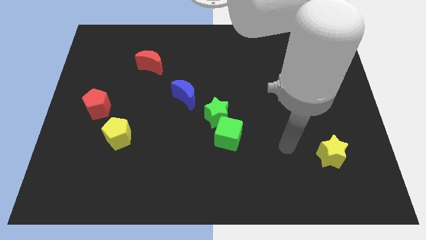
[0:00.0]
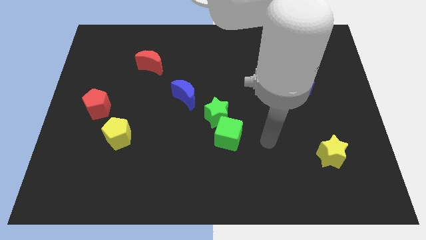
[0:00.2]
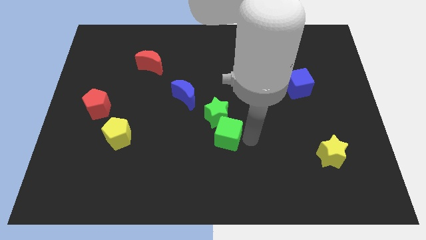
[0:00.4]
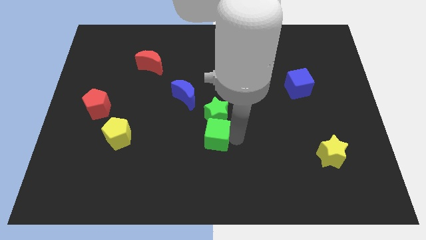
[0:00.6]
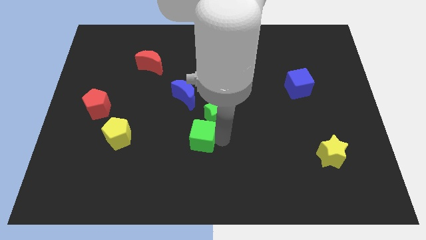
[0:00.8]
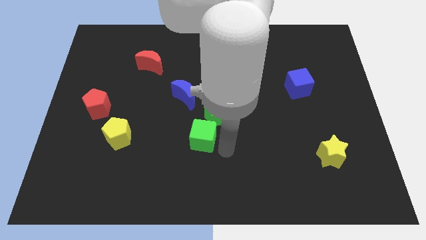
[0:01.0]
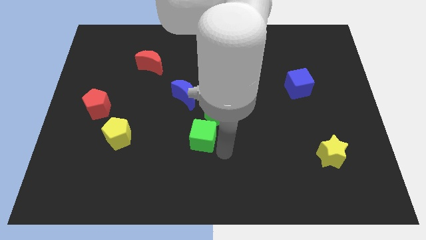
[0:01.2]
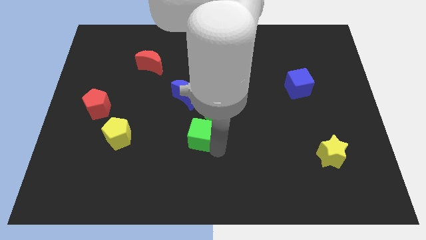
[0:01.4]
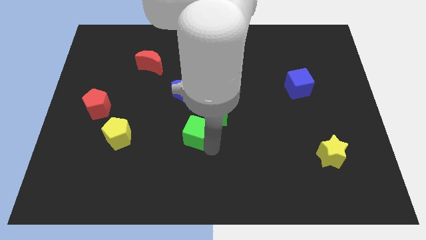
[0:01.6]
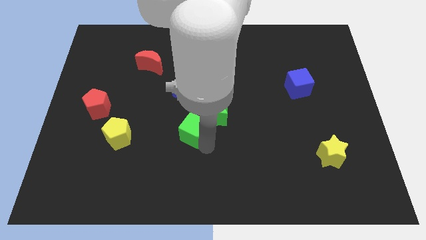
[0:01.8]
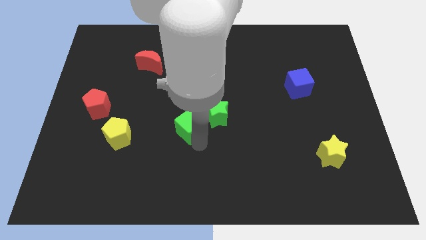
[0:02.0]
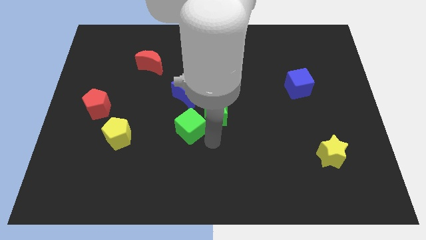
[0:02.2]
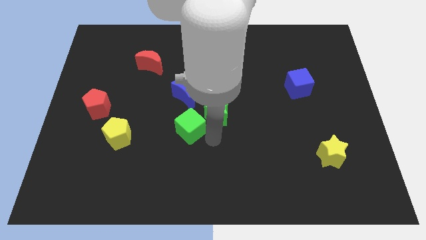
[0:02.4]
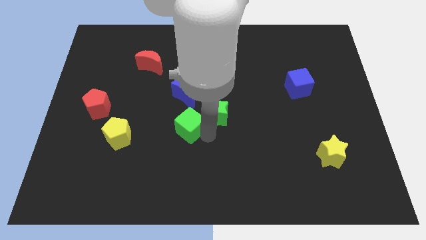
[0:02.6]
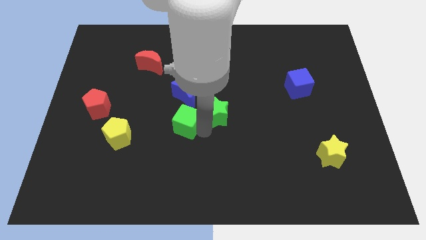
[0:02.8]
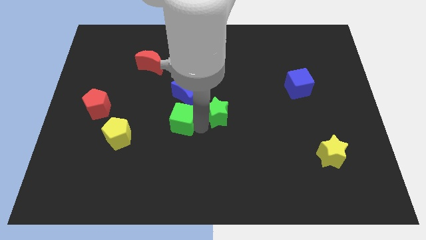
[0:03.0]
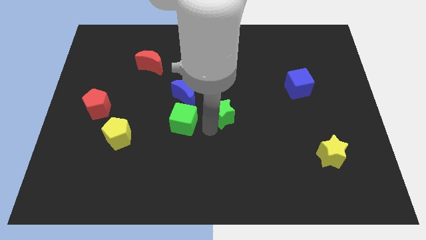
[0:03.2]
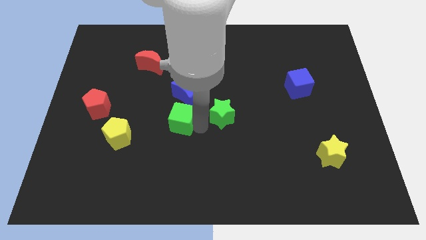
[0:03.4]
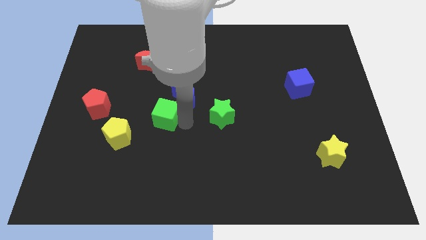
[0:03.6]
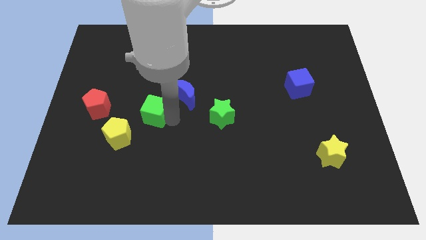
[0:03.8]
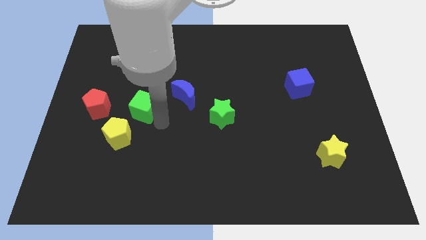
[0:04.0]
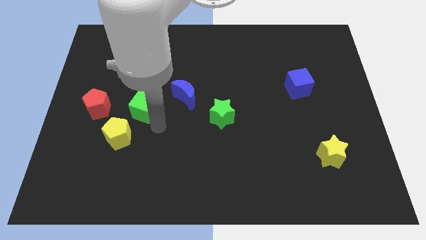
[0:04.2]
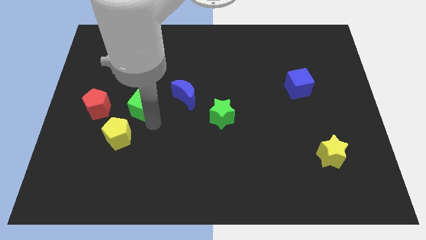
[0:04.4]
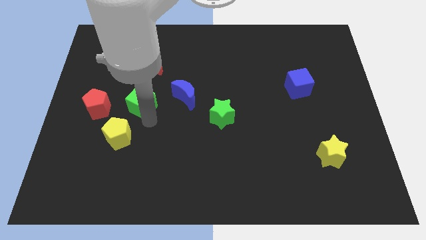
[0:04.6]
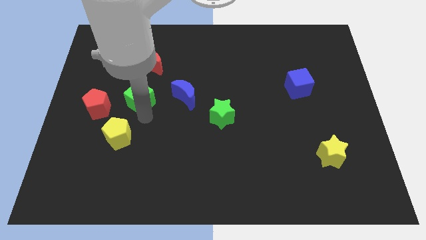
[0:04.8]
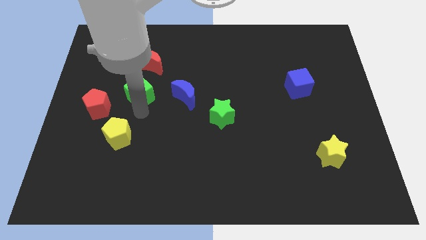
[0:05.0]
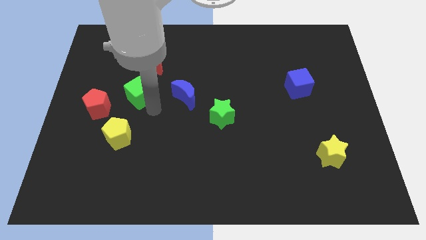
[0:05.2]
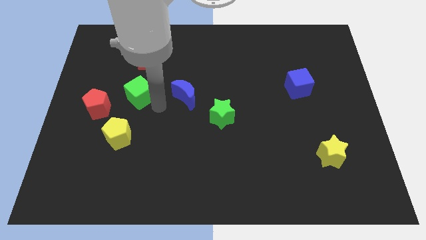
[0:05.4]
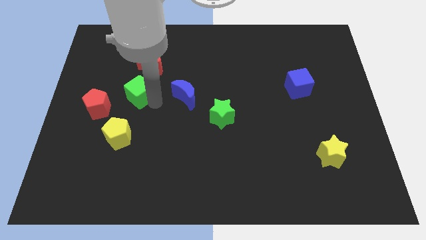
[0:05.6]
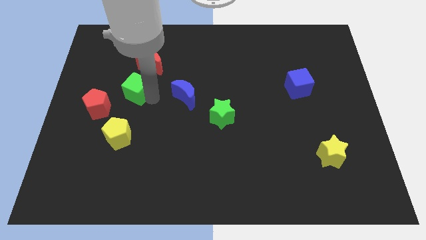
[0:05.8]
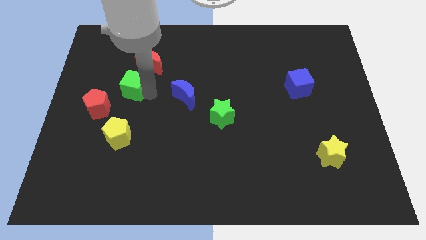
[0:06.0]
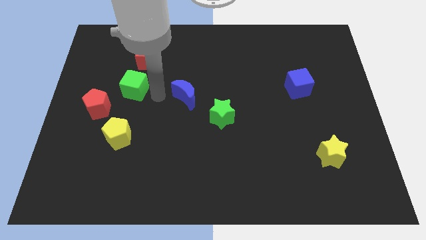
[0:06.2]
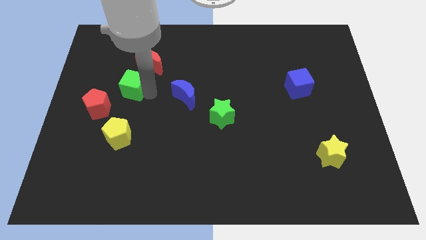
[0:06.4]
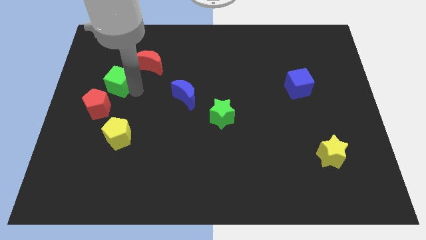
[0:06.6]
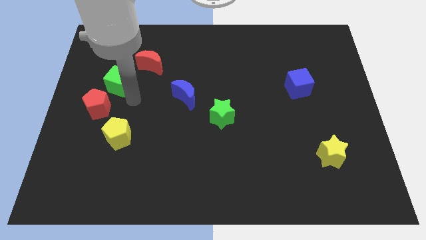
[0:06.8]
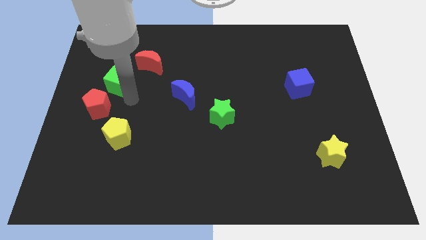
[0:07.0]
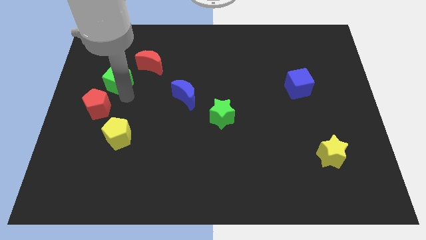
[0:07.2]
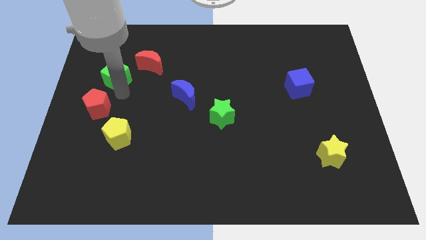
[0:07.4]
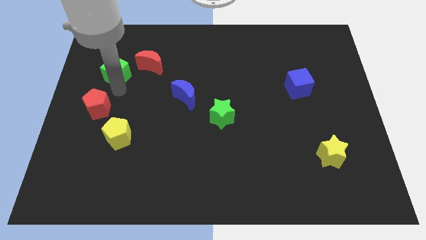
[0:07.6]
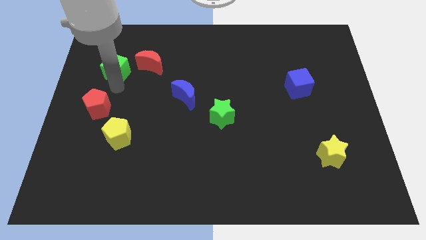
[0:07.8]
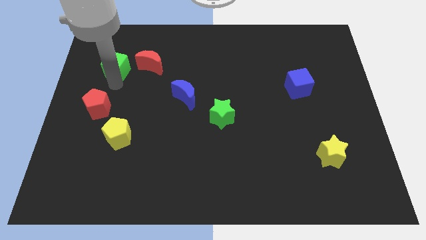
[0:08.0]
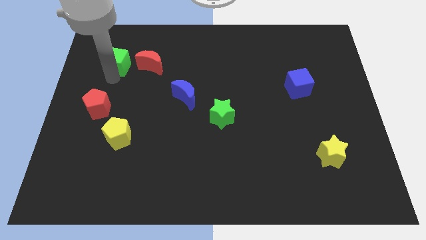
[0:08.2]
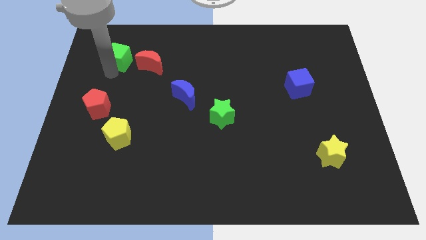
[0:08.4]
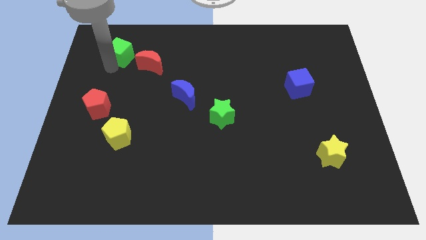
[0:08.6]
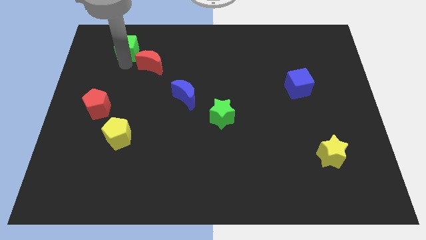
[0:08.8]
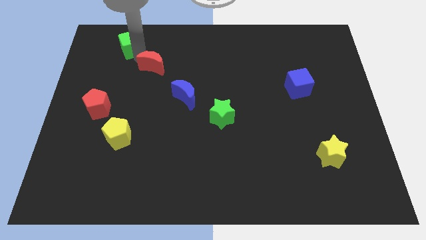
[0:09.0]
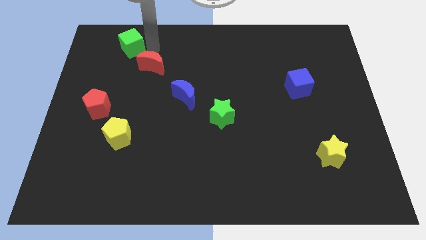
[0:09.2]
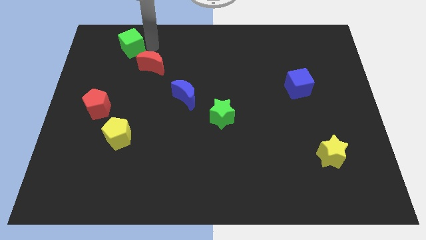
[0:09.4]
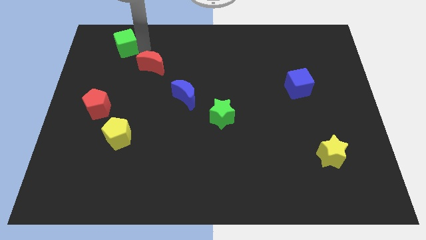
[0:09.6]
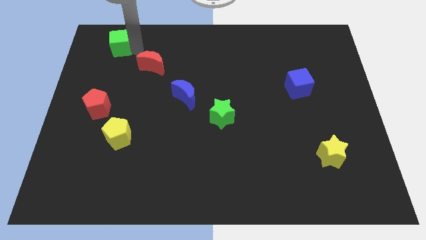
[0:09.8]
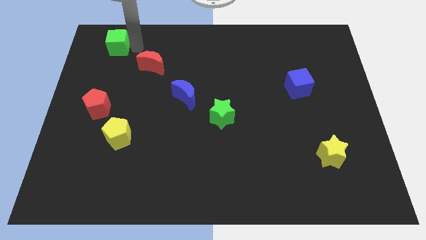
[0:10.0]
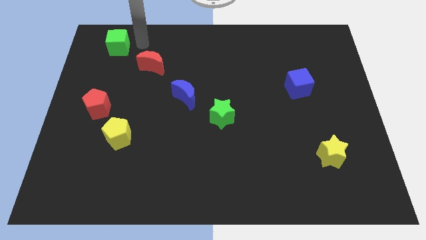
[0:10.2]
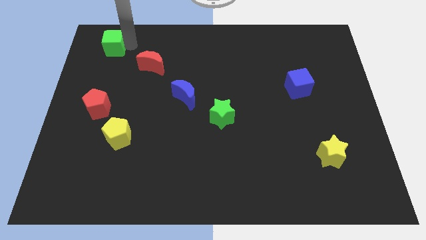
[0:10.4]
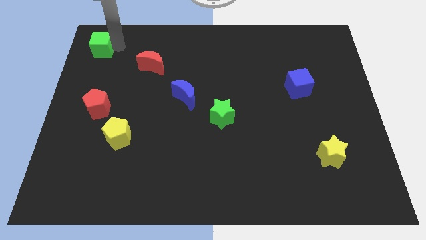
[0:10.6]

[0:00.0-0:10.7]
slide the green cube to the upper left corner
